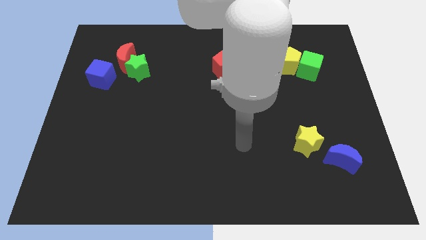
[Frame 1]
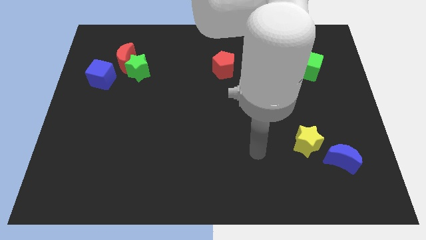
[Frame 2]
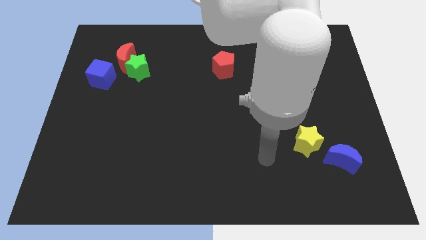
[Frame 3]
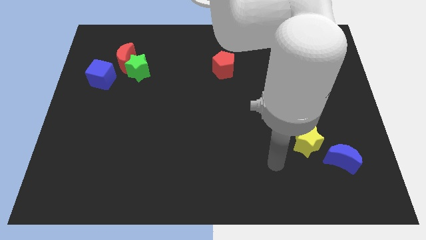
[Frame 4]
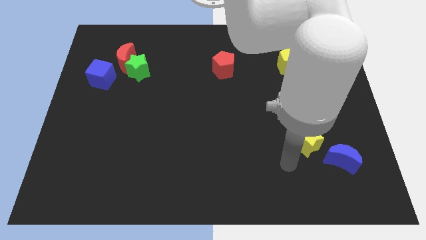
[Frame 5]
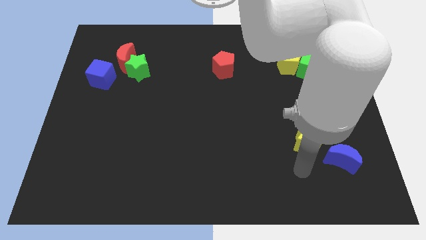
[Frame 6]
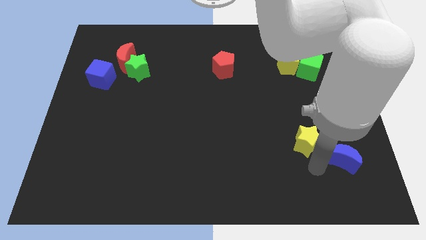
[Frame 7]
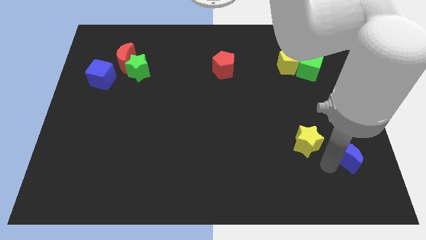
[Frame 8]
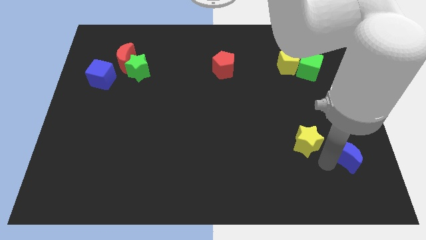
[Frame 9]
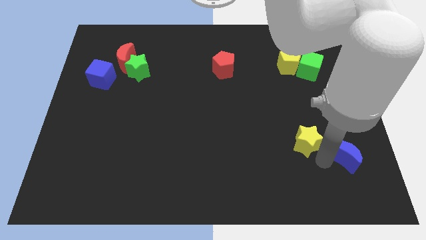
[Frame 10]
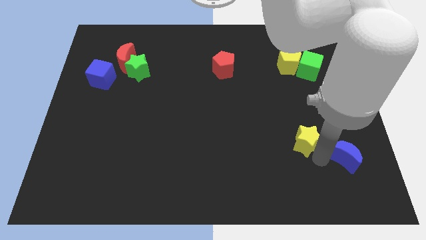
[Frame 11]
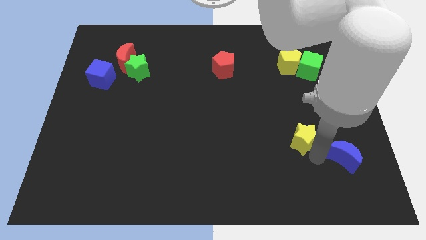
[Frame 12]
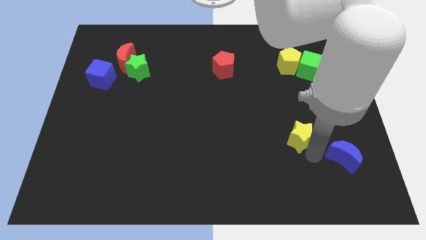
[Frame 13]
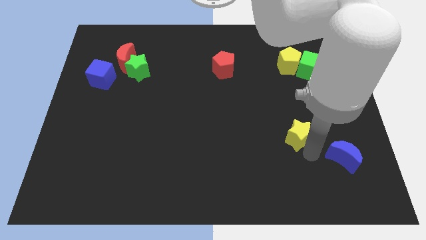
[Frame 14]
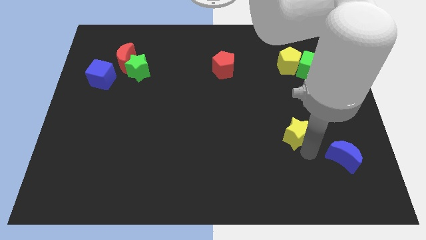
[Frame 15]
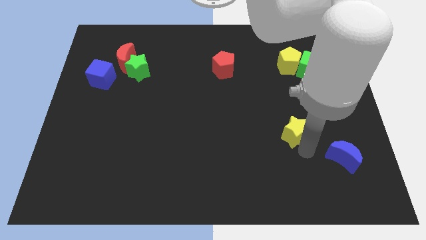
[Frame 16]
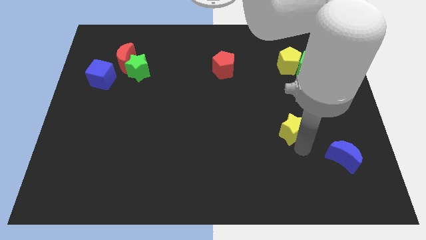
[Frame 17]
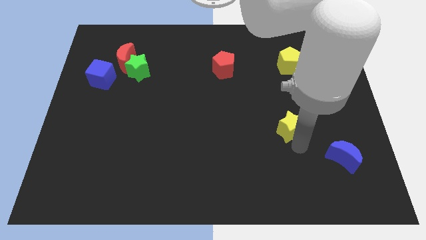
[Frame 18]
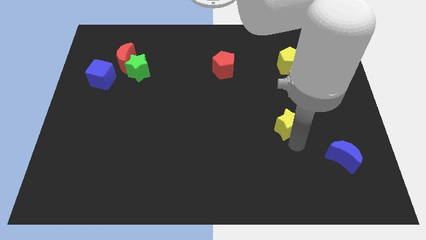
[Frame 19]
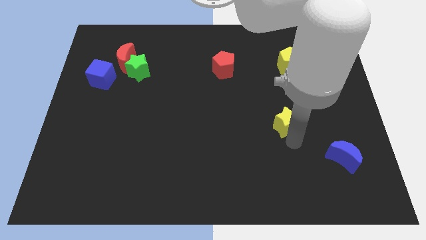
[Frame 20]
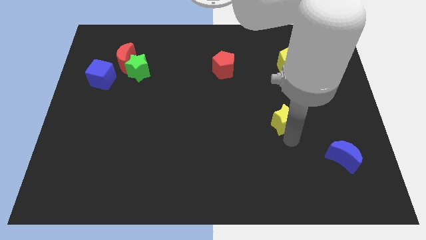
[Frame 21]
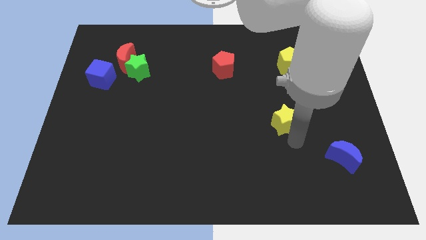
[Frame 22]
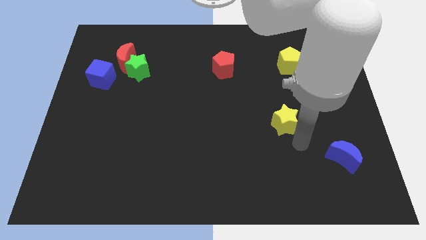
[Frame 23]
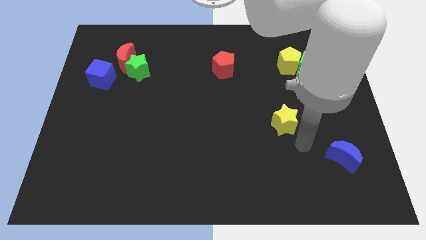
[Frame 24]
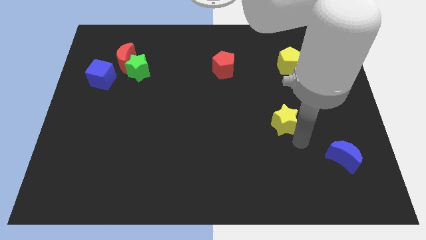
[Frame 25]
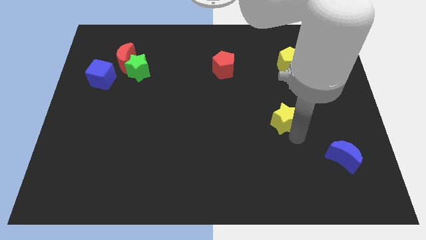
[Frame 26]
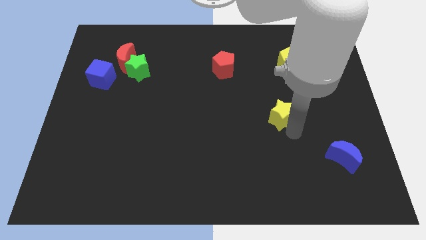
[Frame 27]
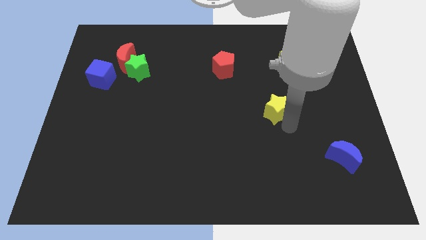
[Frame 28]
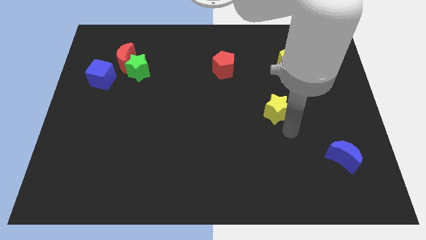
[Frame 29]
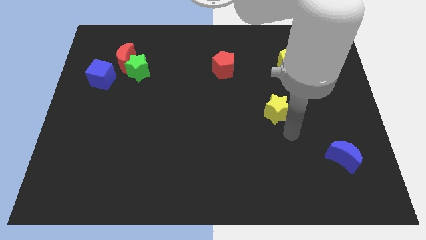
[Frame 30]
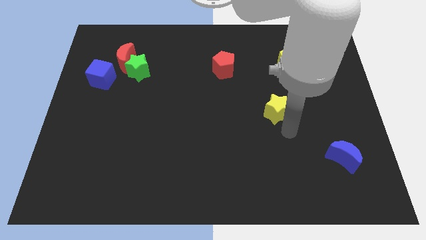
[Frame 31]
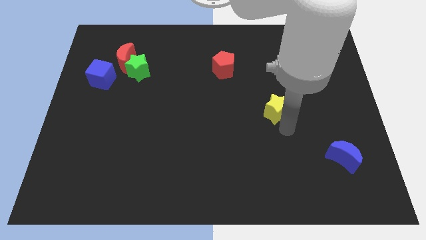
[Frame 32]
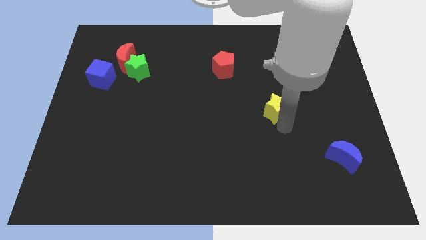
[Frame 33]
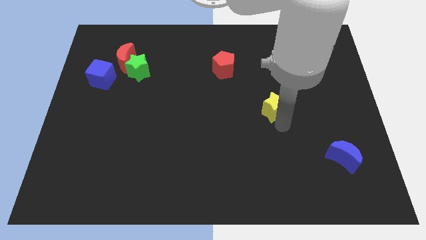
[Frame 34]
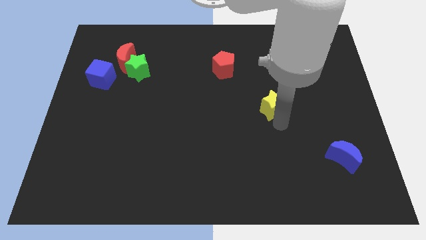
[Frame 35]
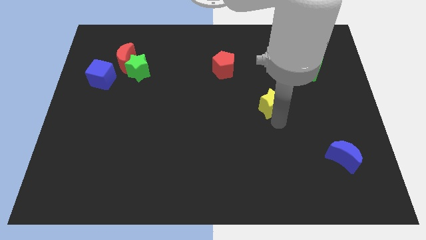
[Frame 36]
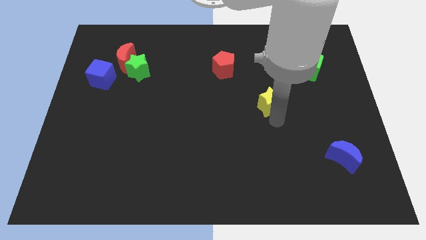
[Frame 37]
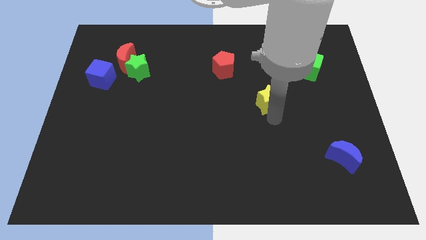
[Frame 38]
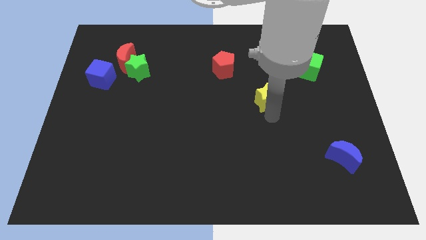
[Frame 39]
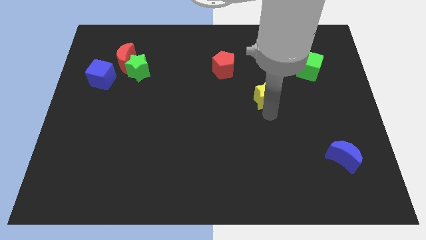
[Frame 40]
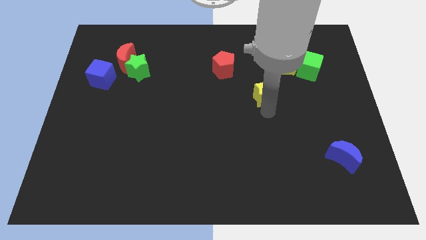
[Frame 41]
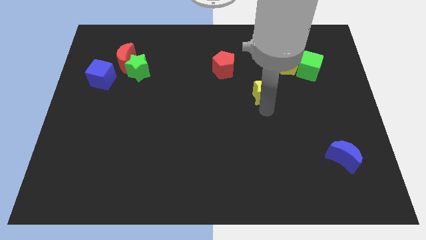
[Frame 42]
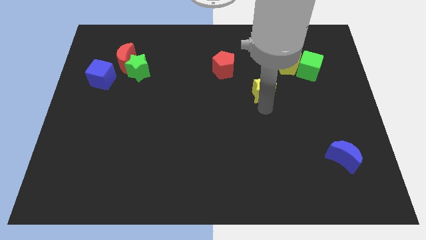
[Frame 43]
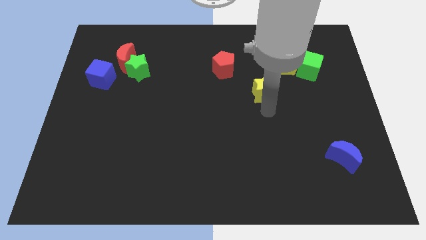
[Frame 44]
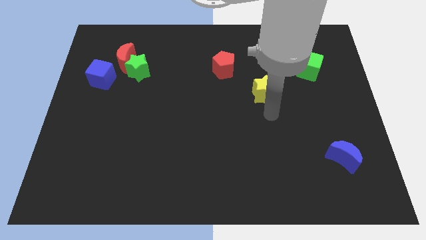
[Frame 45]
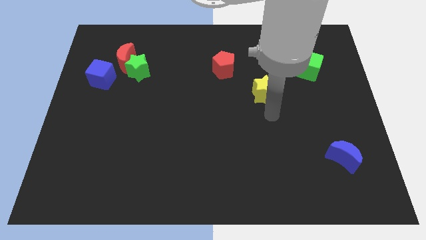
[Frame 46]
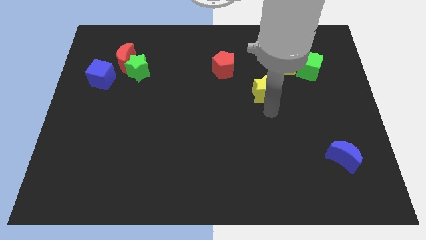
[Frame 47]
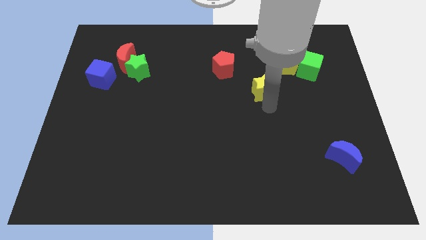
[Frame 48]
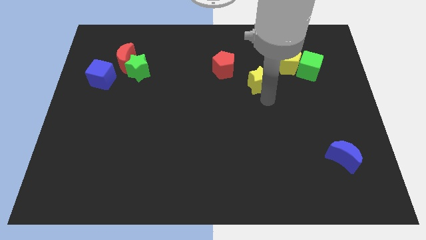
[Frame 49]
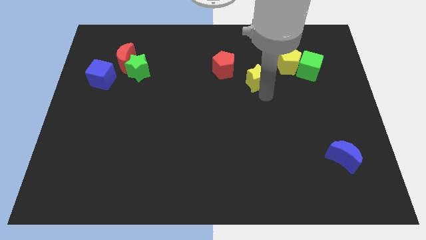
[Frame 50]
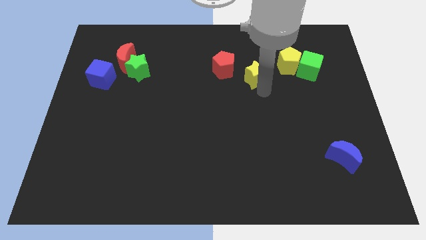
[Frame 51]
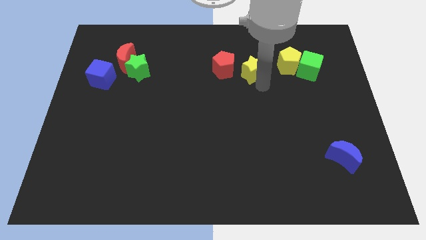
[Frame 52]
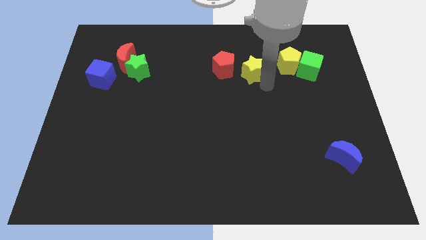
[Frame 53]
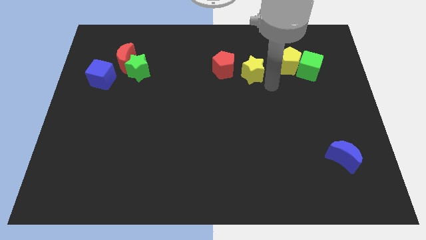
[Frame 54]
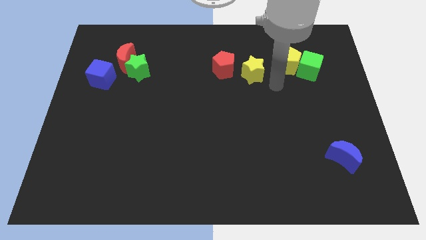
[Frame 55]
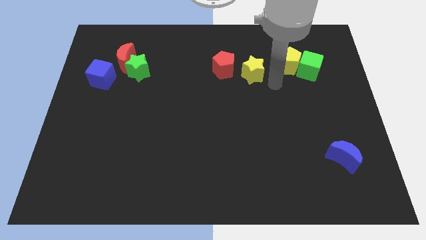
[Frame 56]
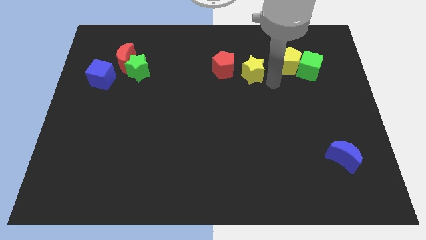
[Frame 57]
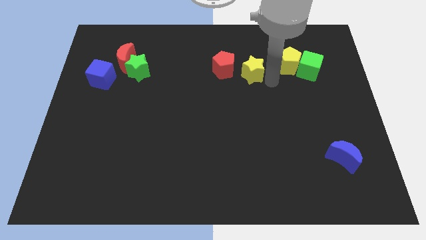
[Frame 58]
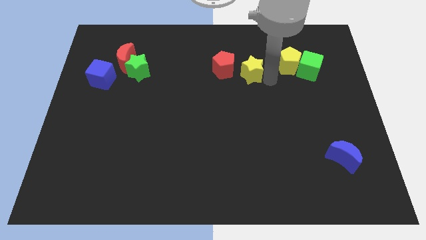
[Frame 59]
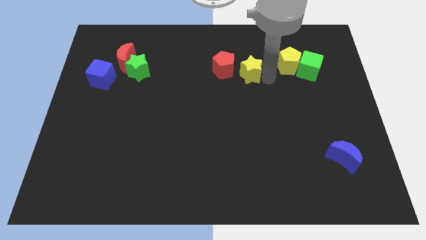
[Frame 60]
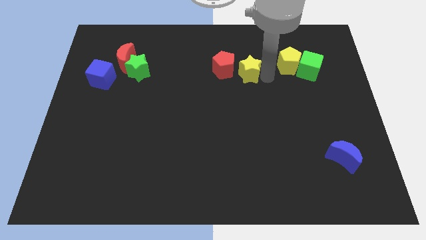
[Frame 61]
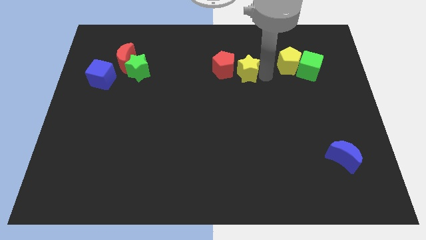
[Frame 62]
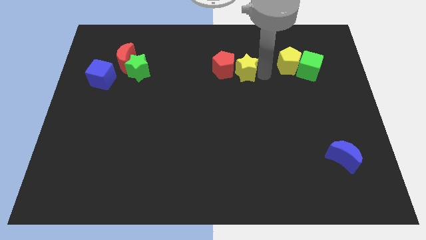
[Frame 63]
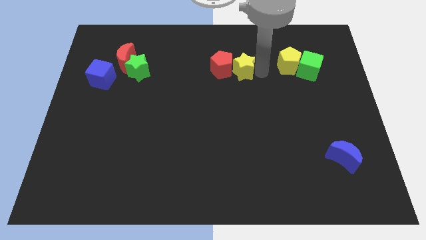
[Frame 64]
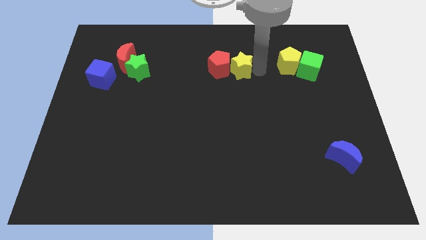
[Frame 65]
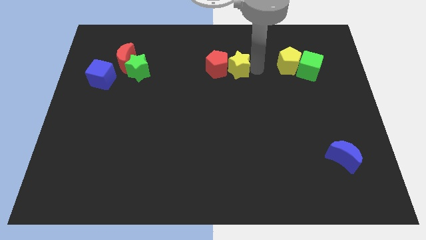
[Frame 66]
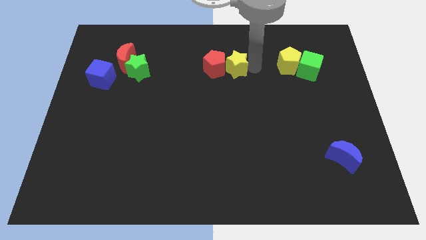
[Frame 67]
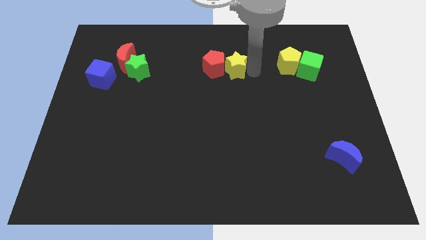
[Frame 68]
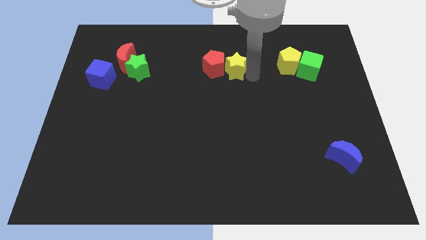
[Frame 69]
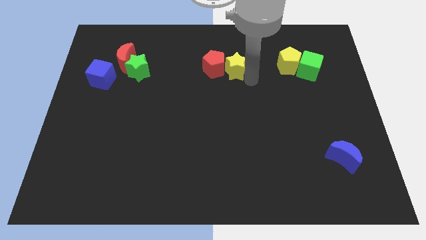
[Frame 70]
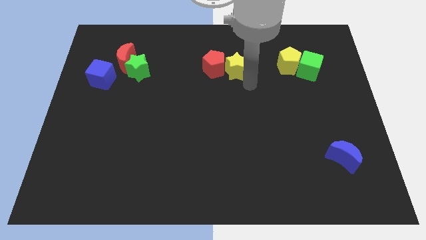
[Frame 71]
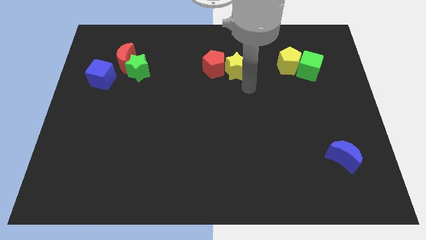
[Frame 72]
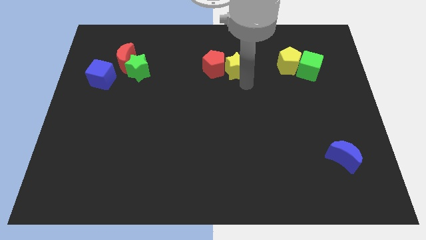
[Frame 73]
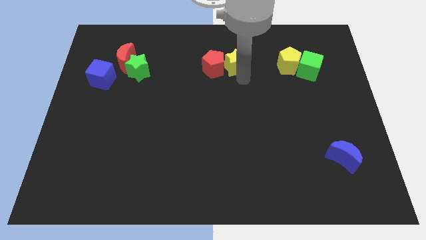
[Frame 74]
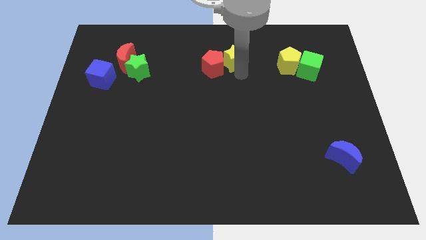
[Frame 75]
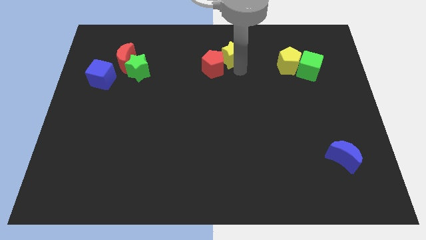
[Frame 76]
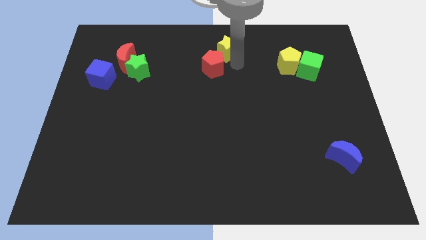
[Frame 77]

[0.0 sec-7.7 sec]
move the yellow star to the towards your base
